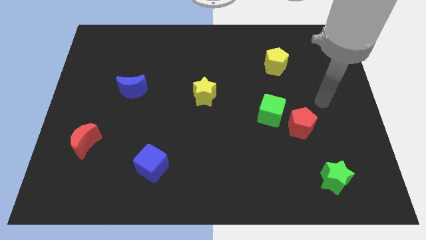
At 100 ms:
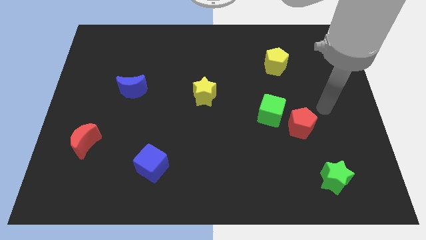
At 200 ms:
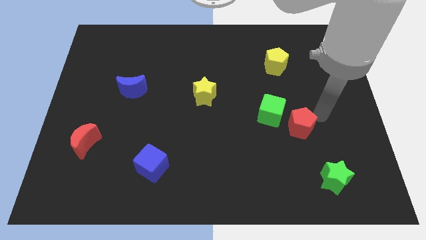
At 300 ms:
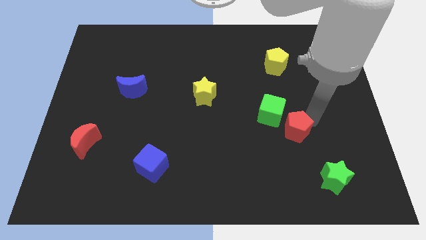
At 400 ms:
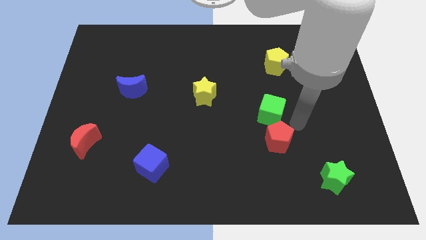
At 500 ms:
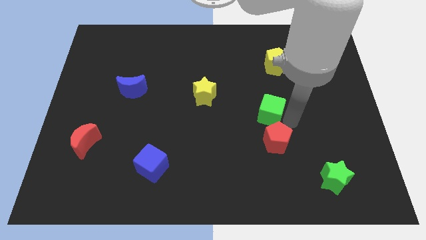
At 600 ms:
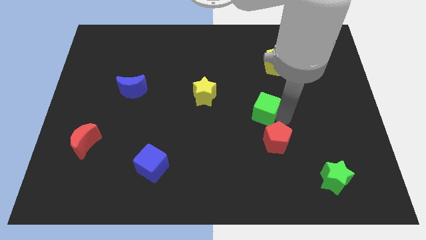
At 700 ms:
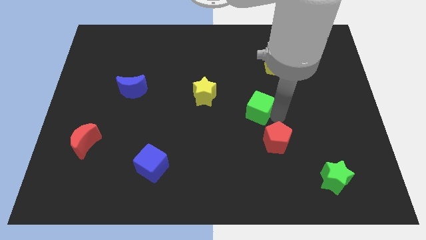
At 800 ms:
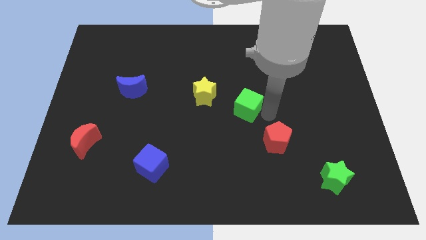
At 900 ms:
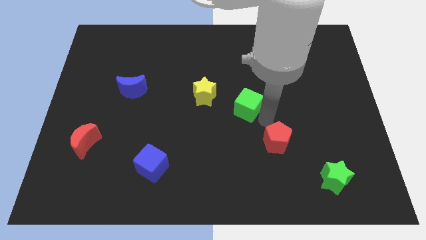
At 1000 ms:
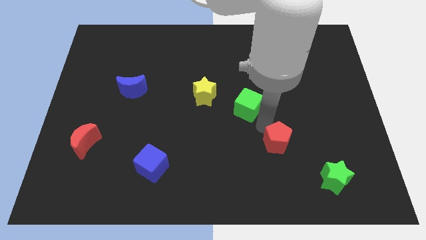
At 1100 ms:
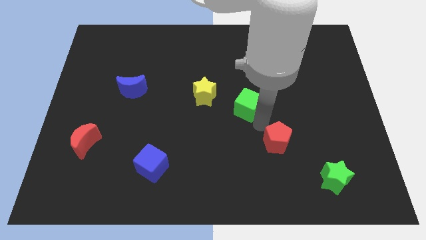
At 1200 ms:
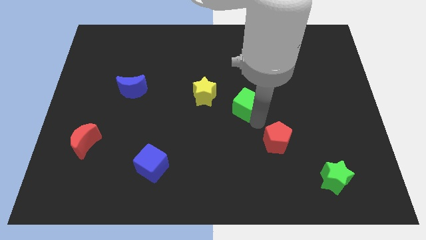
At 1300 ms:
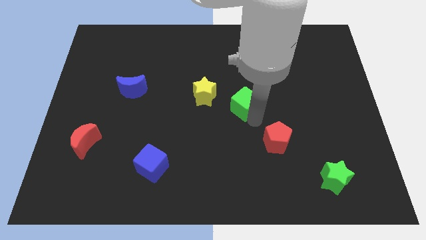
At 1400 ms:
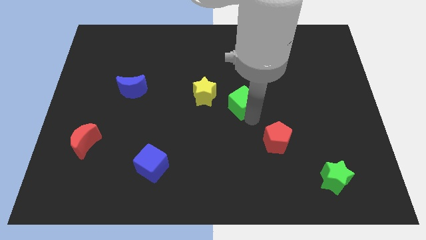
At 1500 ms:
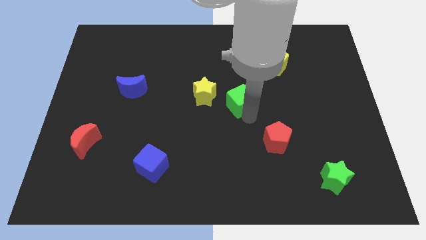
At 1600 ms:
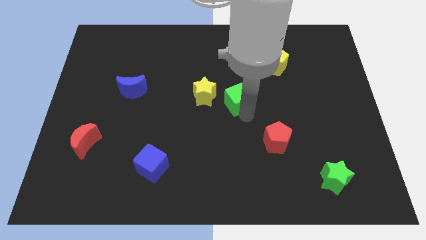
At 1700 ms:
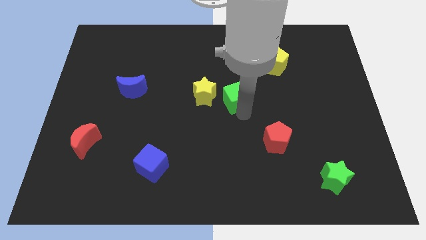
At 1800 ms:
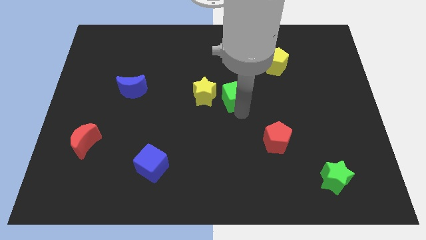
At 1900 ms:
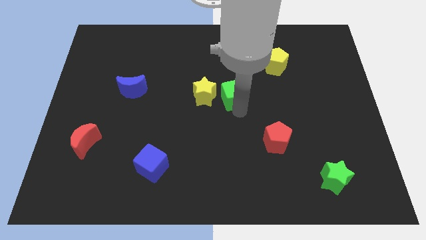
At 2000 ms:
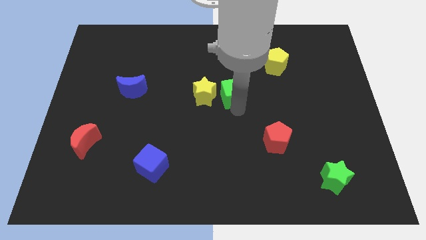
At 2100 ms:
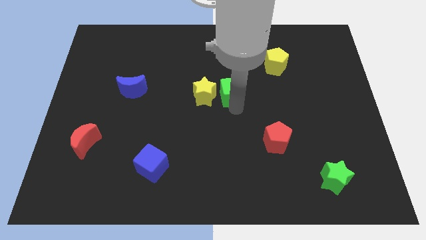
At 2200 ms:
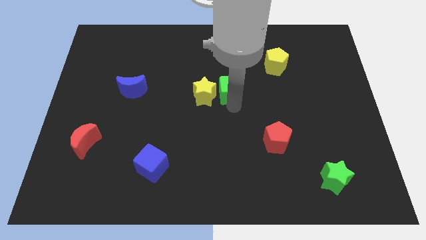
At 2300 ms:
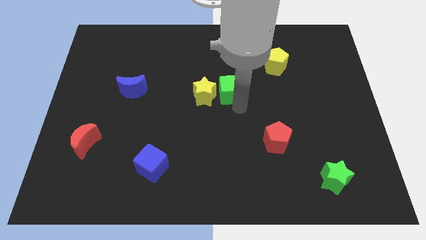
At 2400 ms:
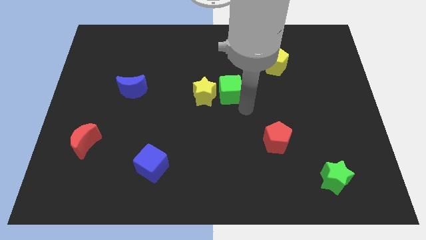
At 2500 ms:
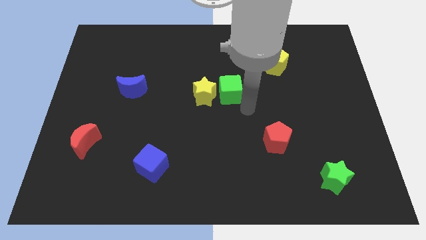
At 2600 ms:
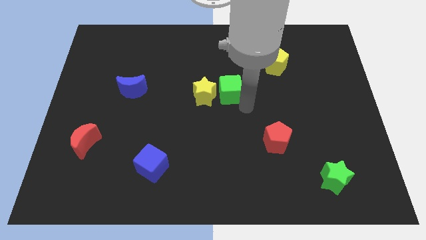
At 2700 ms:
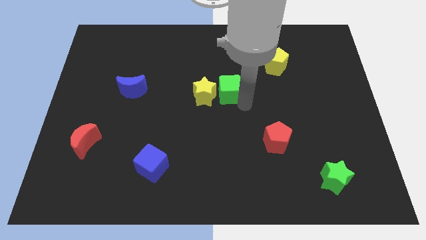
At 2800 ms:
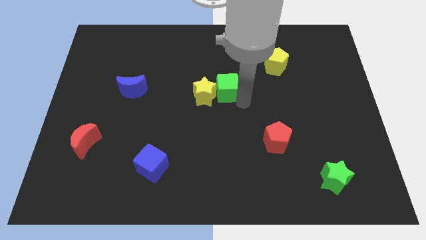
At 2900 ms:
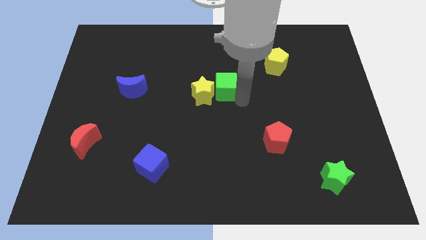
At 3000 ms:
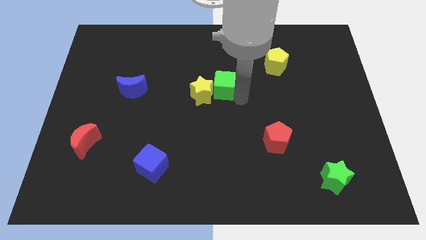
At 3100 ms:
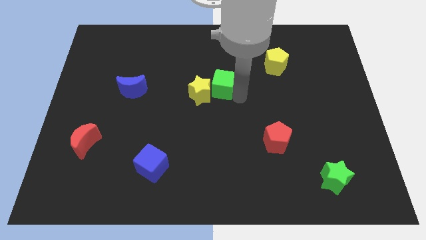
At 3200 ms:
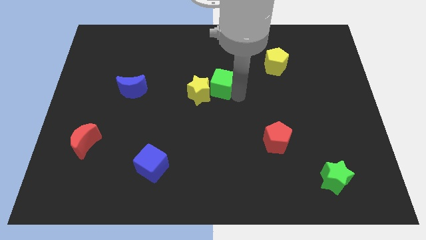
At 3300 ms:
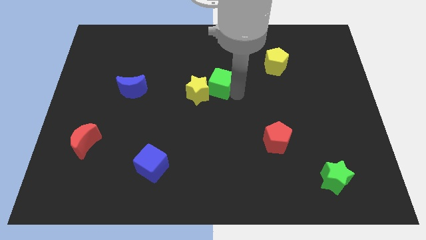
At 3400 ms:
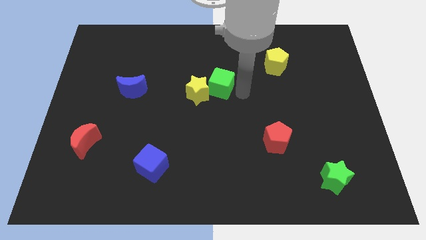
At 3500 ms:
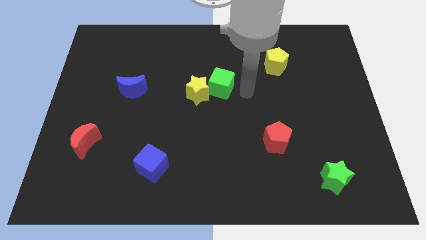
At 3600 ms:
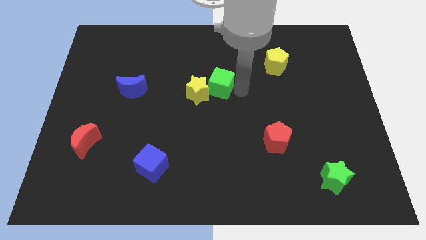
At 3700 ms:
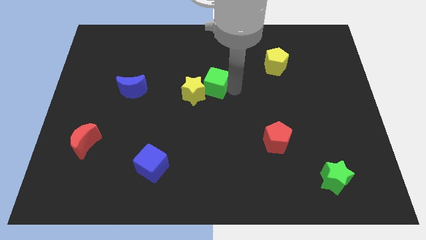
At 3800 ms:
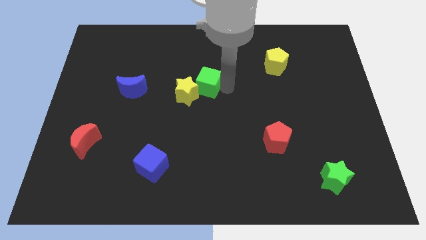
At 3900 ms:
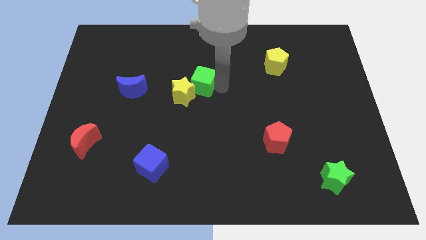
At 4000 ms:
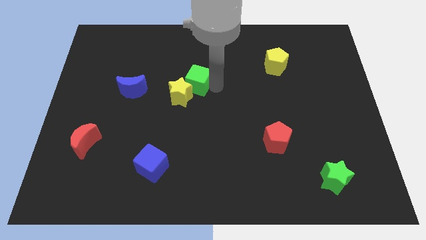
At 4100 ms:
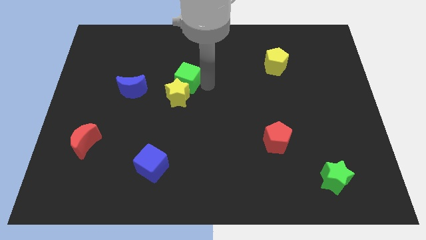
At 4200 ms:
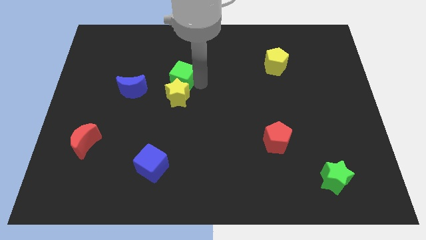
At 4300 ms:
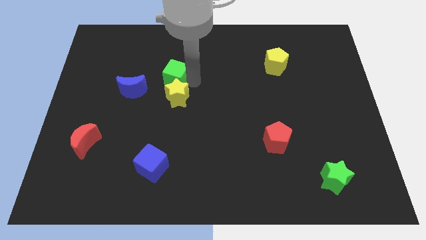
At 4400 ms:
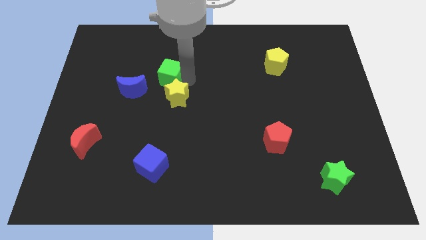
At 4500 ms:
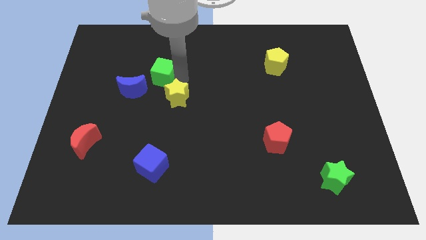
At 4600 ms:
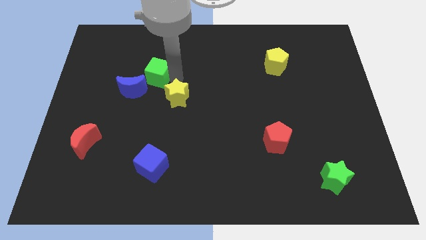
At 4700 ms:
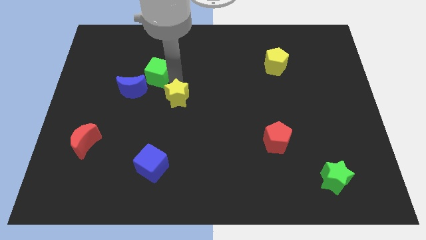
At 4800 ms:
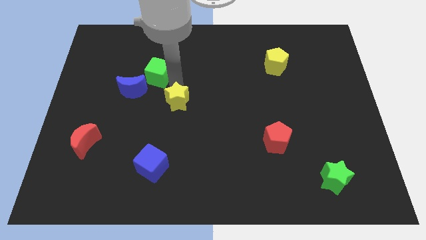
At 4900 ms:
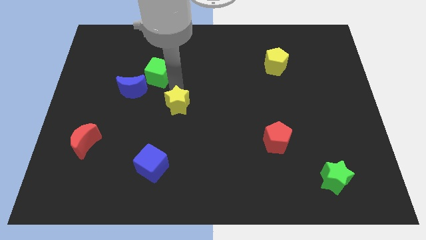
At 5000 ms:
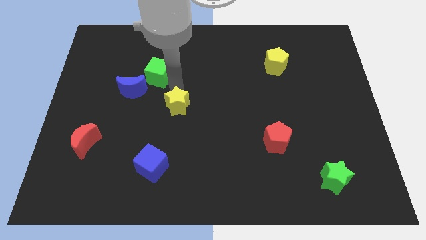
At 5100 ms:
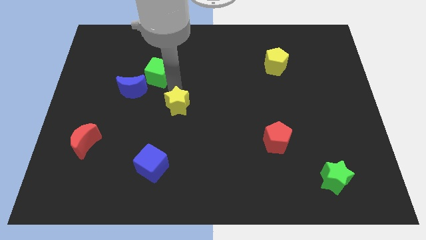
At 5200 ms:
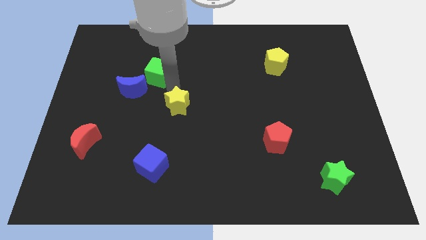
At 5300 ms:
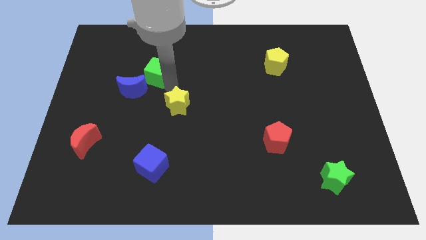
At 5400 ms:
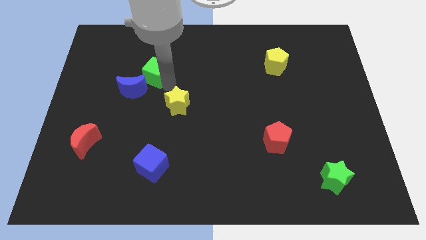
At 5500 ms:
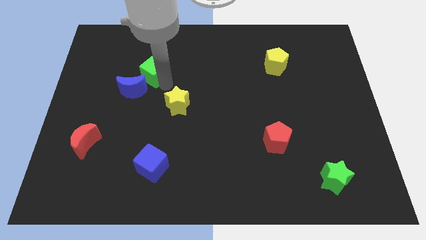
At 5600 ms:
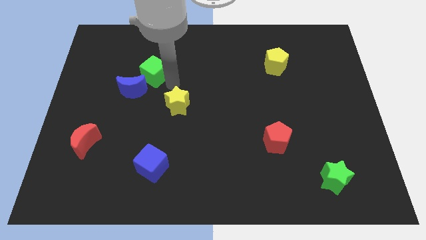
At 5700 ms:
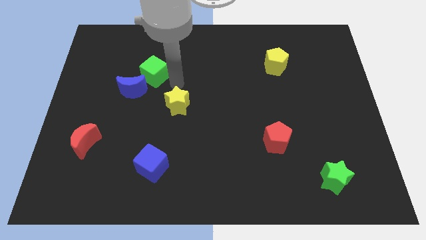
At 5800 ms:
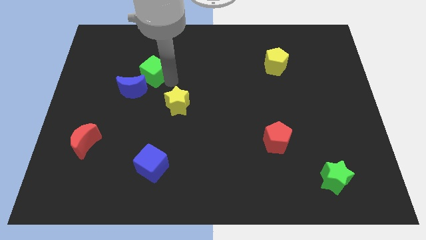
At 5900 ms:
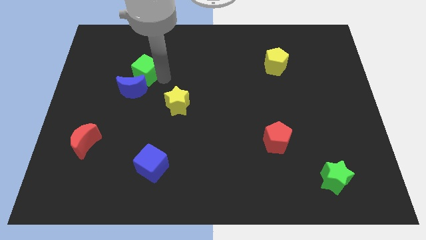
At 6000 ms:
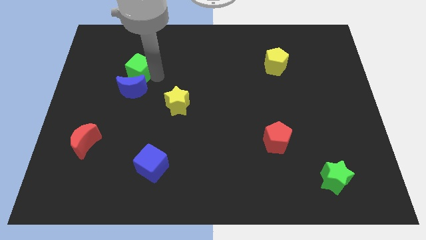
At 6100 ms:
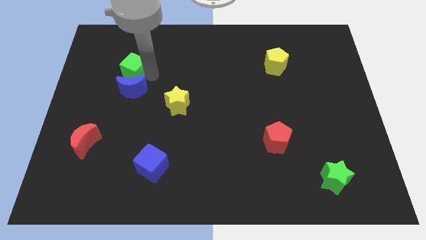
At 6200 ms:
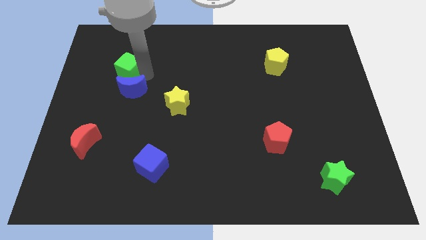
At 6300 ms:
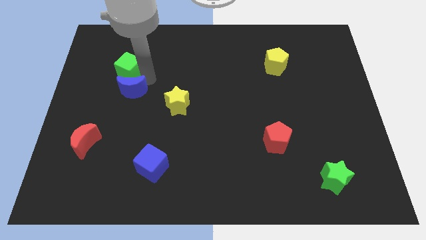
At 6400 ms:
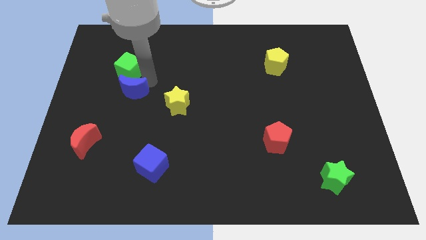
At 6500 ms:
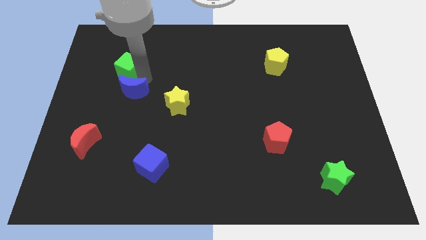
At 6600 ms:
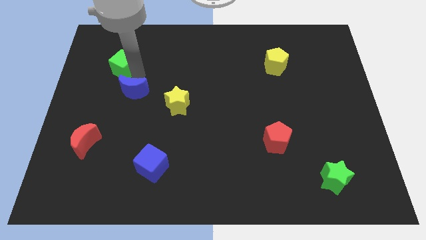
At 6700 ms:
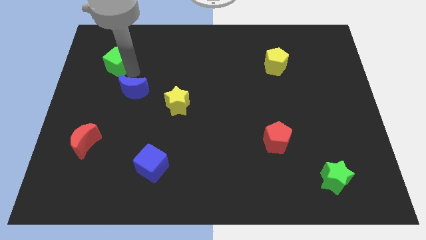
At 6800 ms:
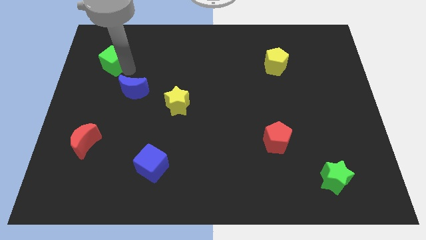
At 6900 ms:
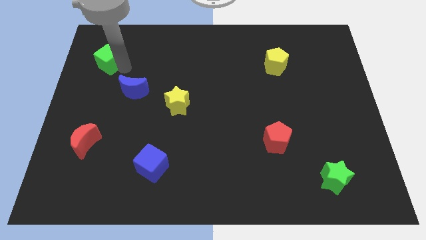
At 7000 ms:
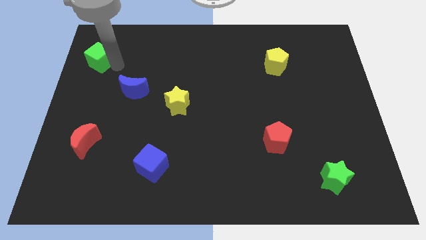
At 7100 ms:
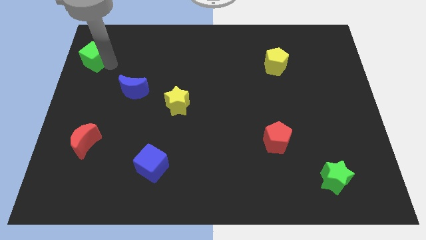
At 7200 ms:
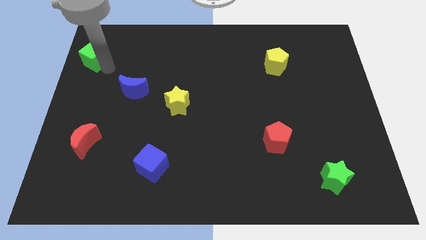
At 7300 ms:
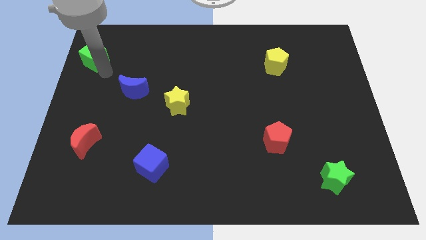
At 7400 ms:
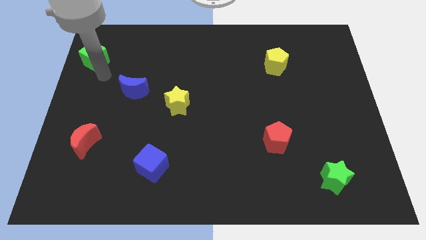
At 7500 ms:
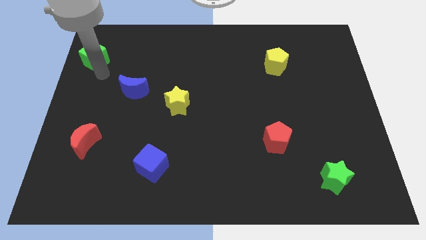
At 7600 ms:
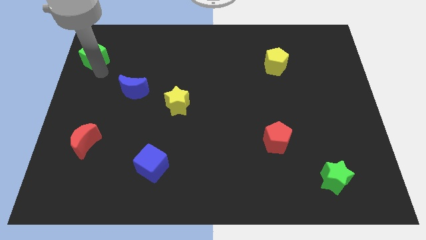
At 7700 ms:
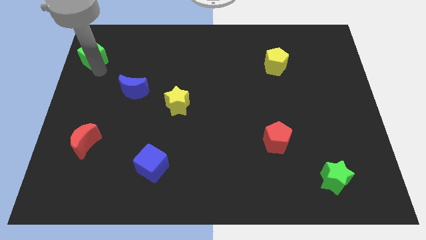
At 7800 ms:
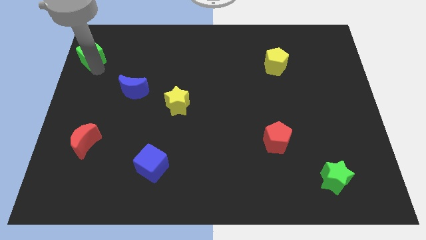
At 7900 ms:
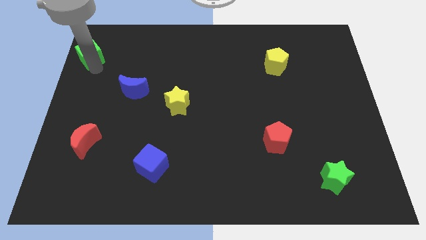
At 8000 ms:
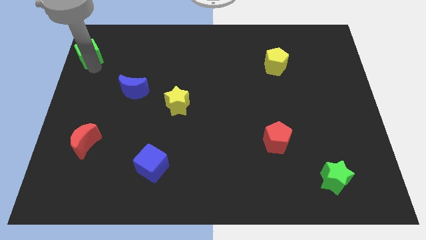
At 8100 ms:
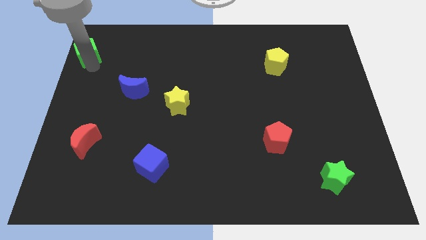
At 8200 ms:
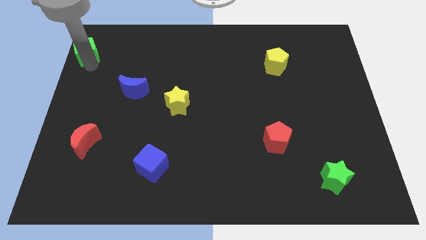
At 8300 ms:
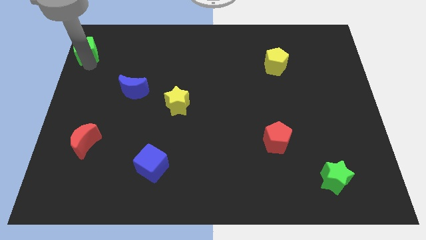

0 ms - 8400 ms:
push the green cube to the top left corner

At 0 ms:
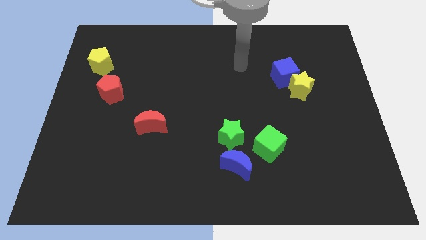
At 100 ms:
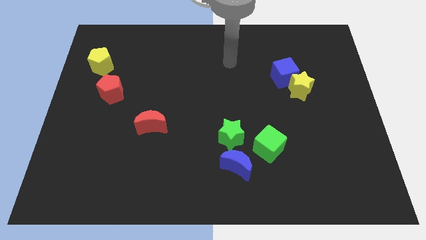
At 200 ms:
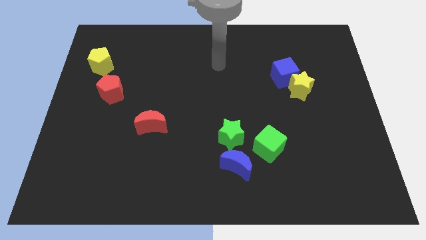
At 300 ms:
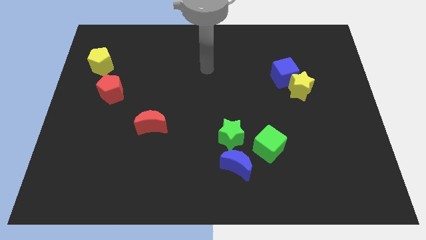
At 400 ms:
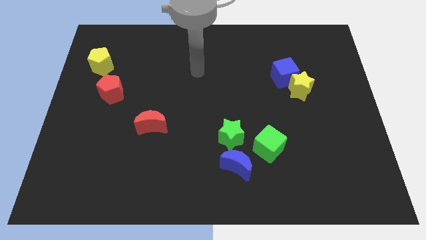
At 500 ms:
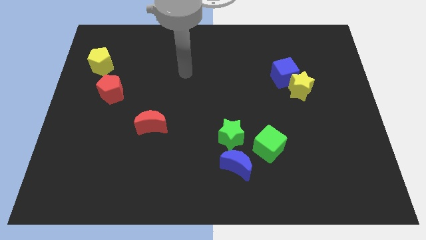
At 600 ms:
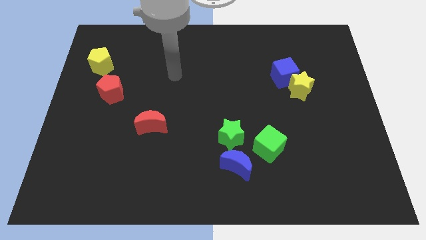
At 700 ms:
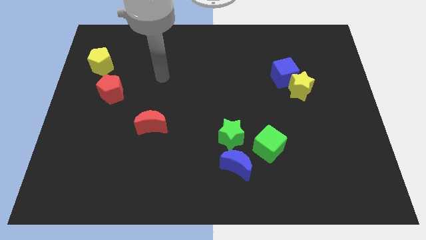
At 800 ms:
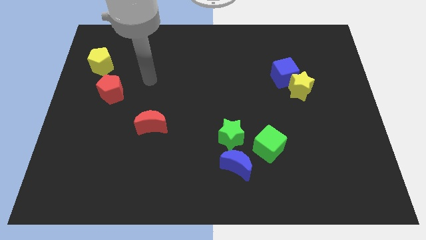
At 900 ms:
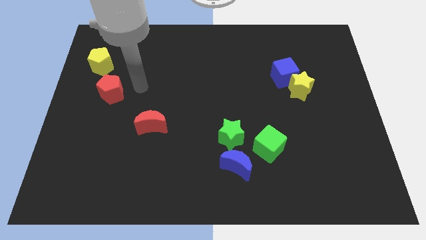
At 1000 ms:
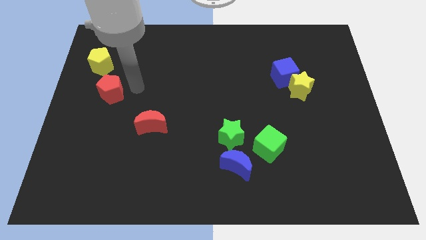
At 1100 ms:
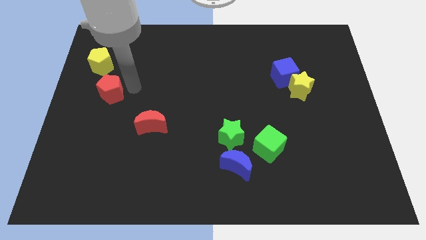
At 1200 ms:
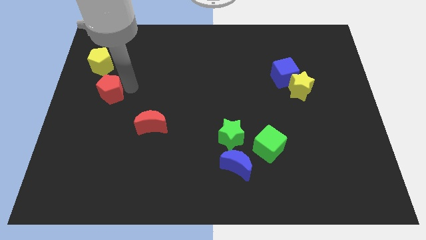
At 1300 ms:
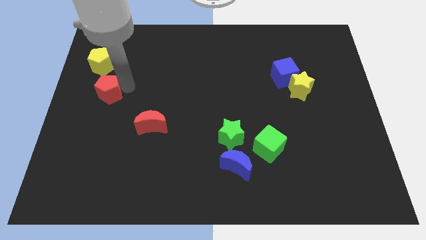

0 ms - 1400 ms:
move the red pentagon to the left side
